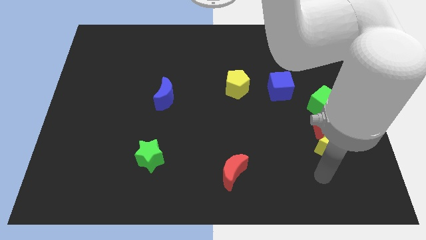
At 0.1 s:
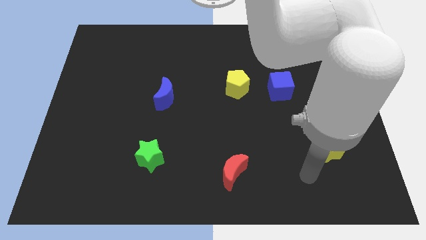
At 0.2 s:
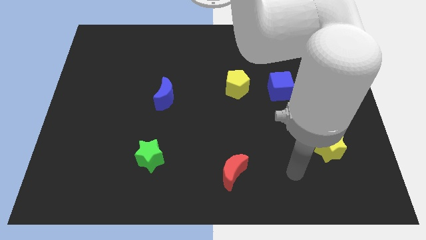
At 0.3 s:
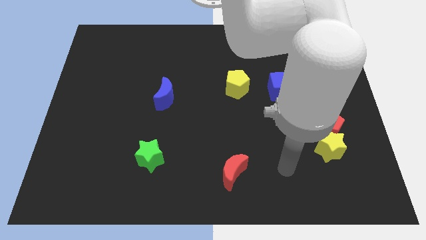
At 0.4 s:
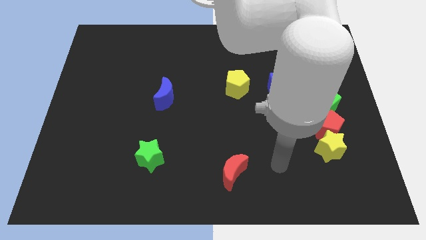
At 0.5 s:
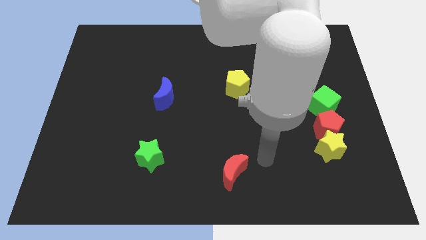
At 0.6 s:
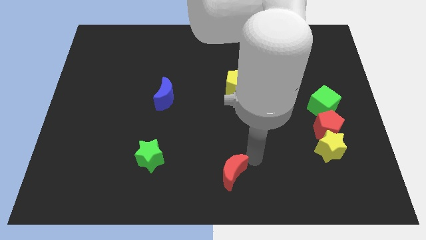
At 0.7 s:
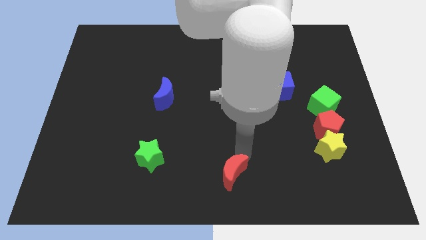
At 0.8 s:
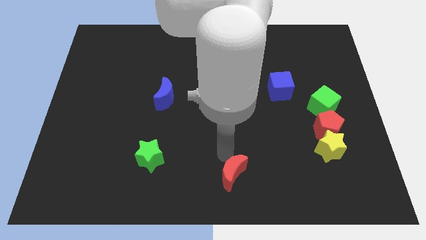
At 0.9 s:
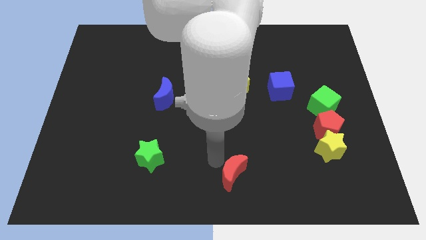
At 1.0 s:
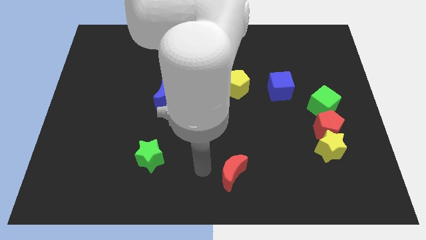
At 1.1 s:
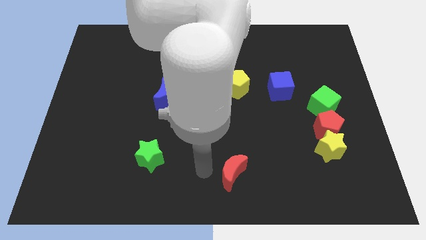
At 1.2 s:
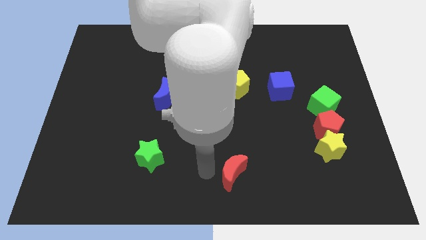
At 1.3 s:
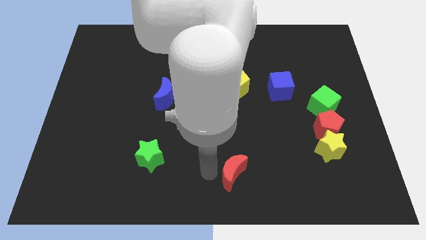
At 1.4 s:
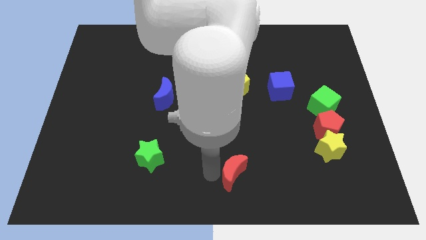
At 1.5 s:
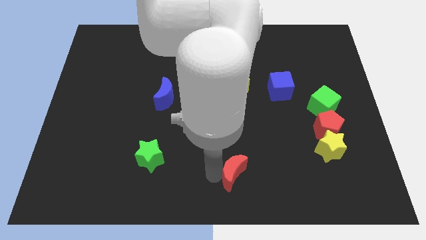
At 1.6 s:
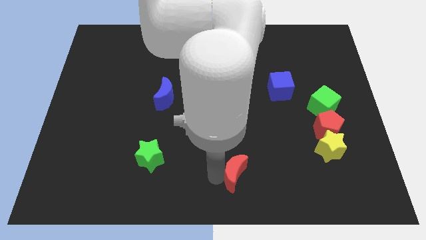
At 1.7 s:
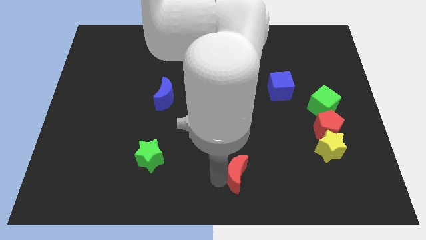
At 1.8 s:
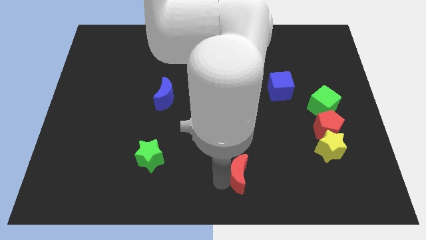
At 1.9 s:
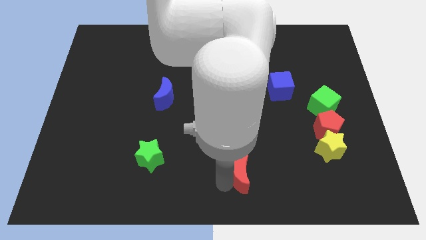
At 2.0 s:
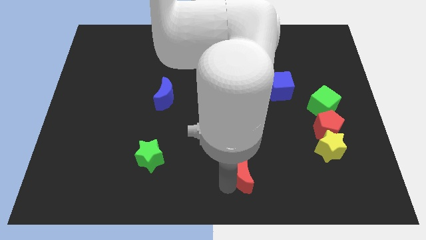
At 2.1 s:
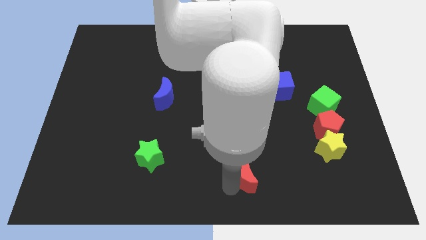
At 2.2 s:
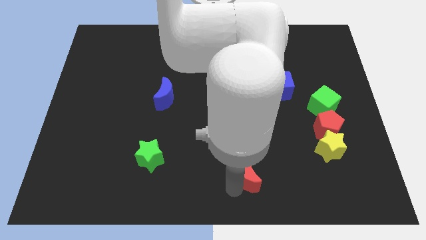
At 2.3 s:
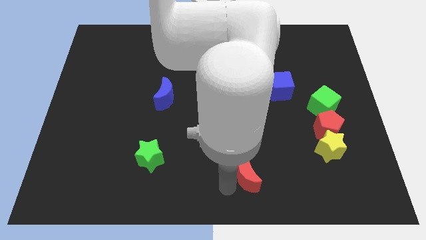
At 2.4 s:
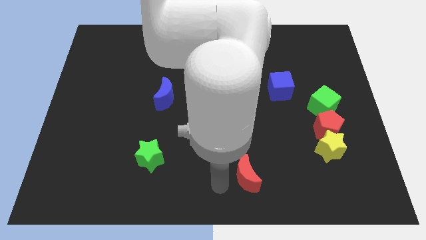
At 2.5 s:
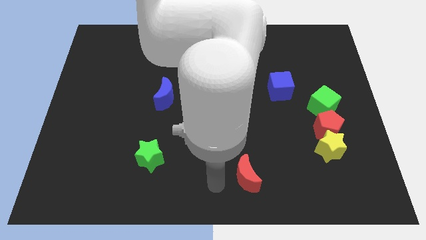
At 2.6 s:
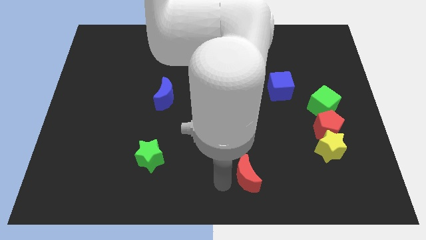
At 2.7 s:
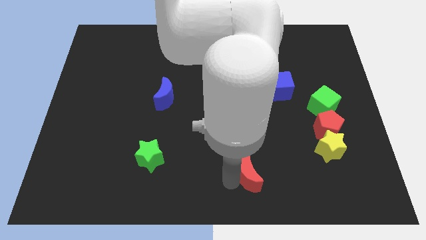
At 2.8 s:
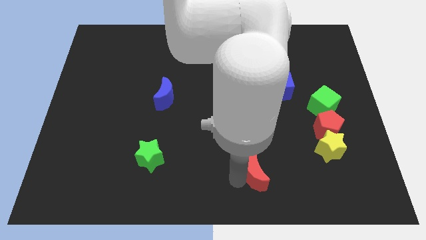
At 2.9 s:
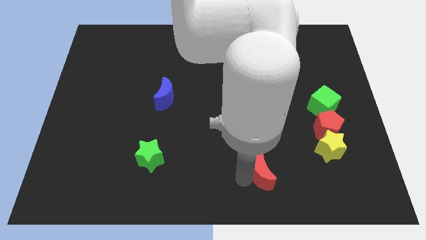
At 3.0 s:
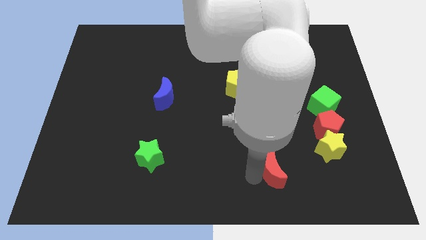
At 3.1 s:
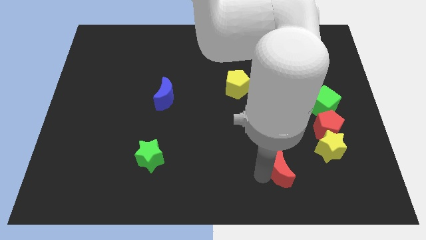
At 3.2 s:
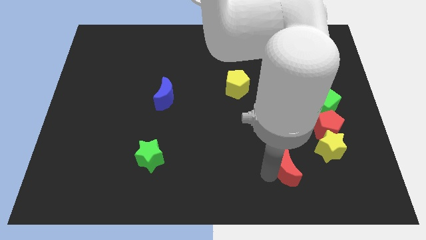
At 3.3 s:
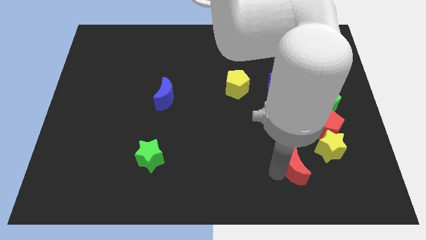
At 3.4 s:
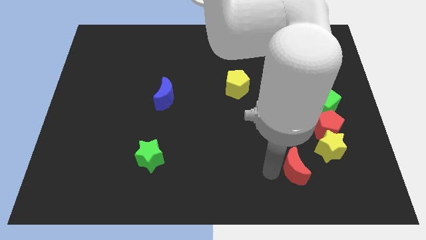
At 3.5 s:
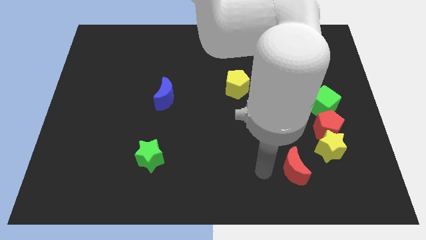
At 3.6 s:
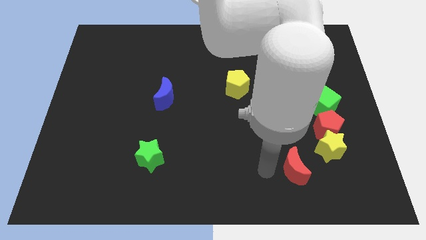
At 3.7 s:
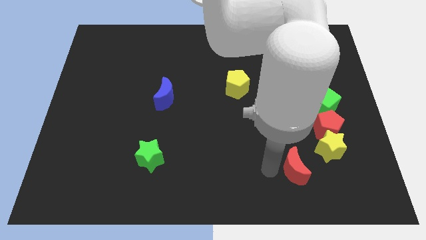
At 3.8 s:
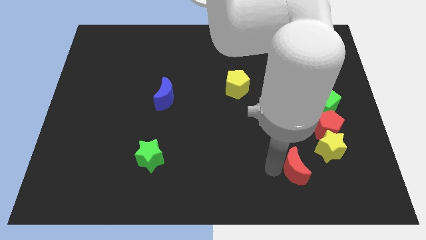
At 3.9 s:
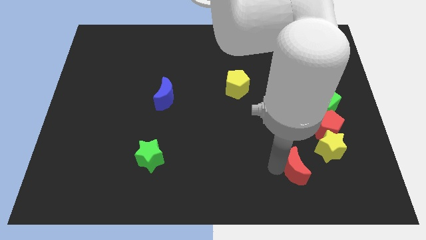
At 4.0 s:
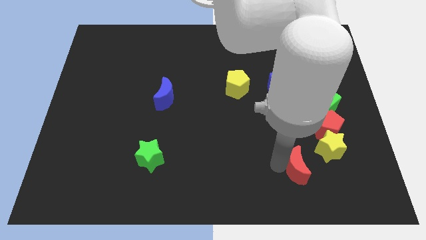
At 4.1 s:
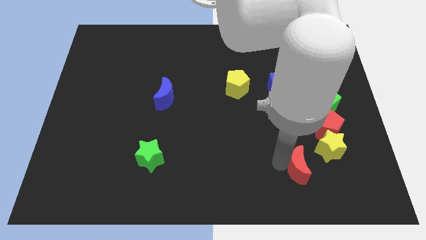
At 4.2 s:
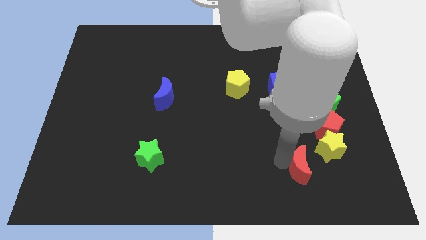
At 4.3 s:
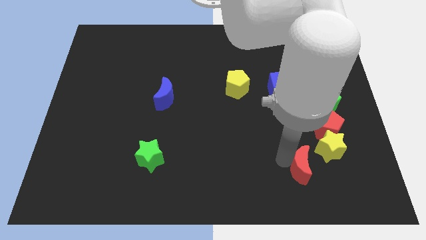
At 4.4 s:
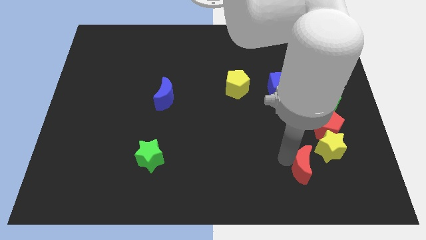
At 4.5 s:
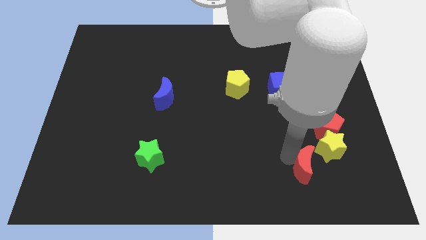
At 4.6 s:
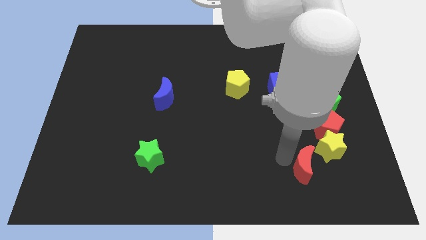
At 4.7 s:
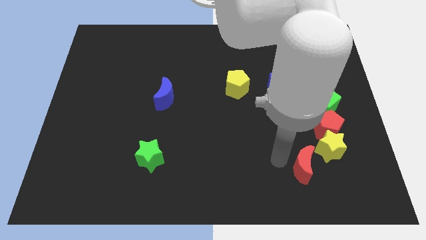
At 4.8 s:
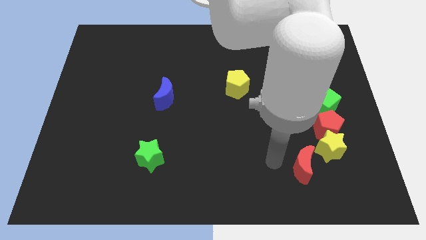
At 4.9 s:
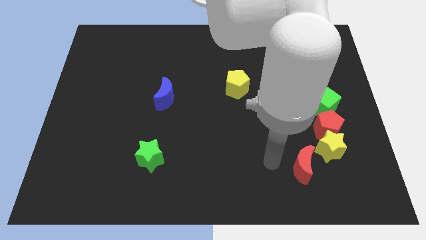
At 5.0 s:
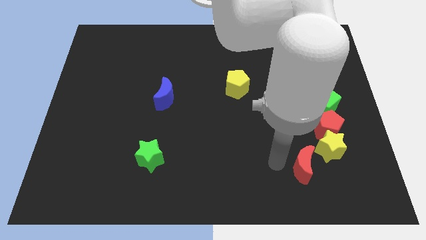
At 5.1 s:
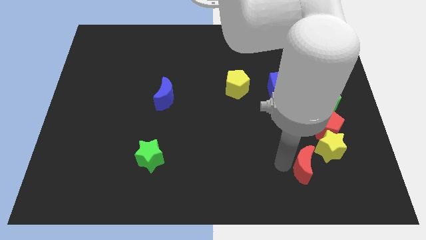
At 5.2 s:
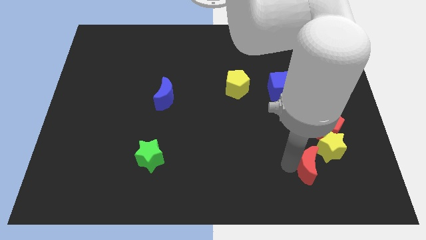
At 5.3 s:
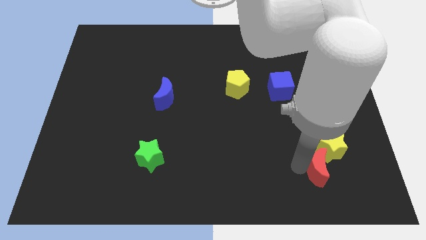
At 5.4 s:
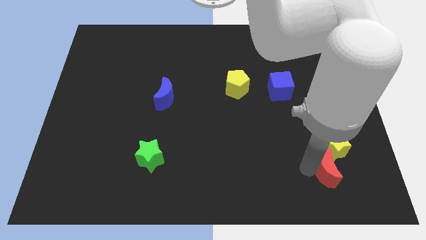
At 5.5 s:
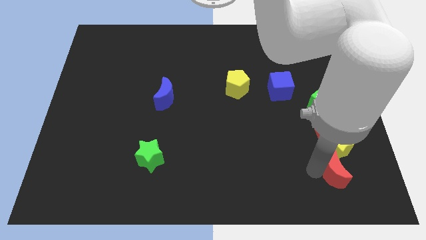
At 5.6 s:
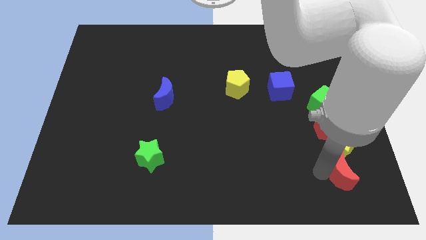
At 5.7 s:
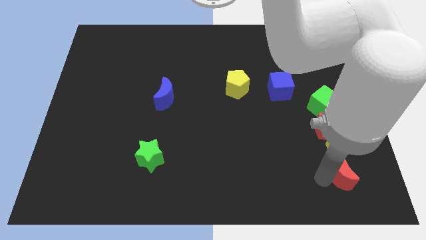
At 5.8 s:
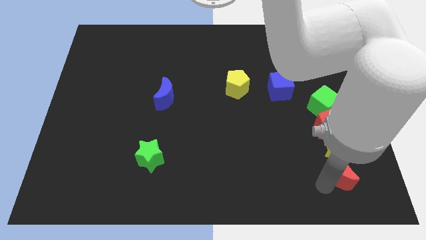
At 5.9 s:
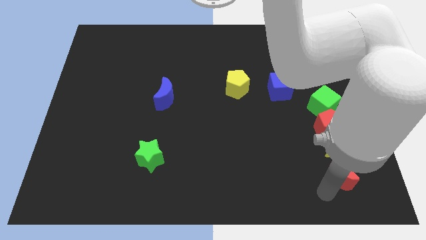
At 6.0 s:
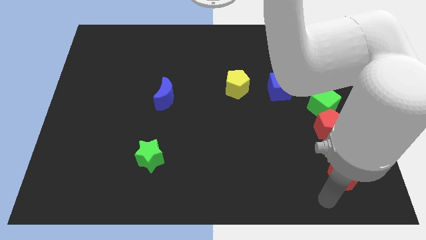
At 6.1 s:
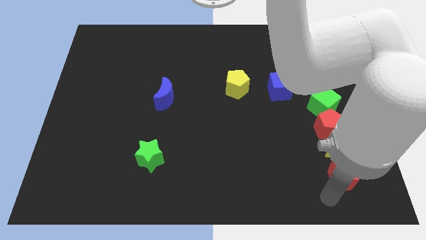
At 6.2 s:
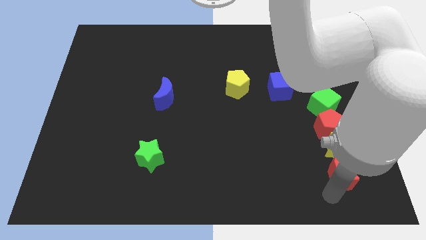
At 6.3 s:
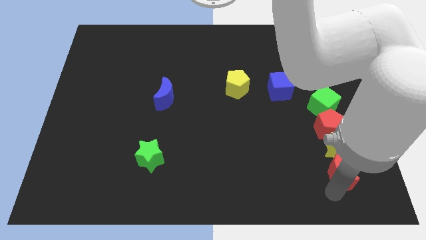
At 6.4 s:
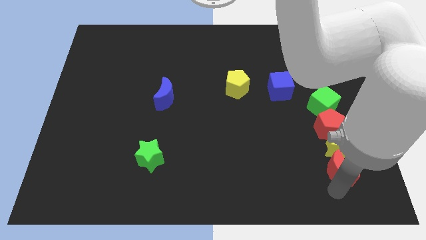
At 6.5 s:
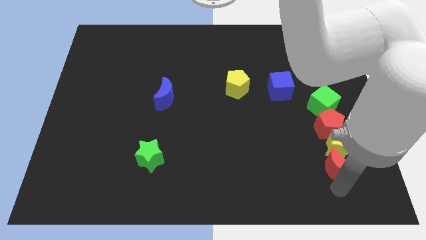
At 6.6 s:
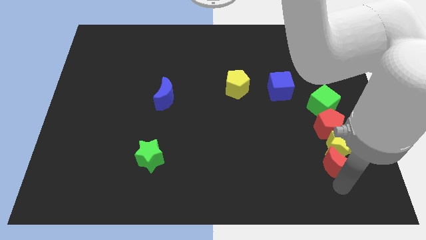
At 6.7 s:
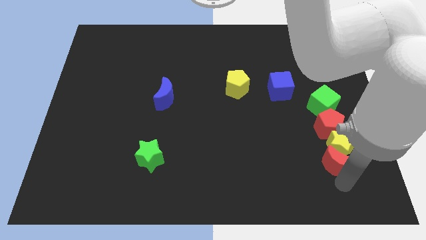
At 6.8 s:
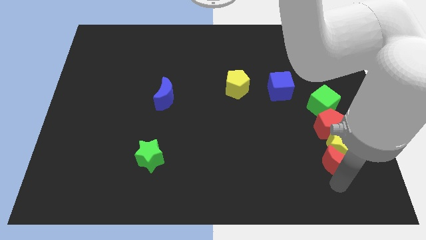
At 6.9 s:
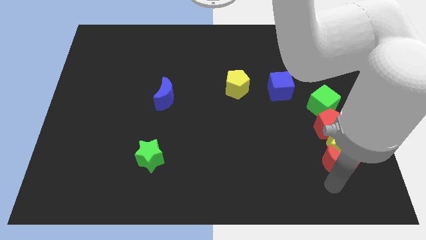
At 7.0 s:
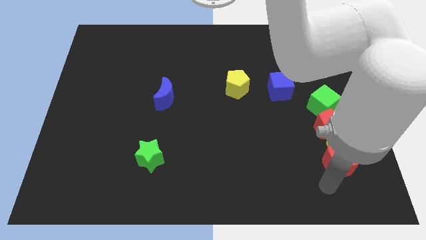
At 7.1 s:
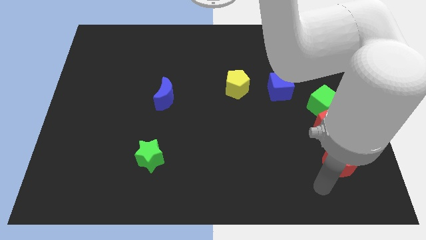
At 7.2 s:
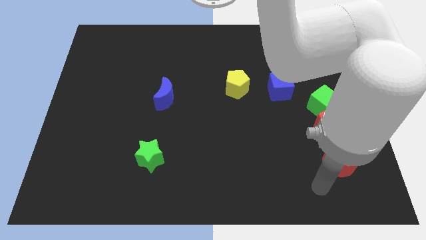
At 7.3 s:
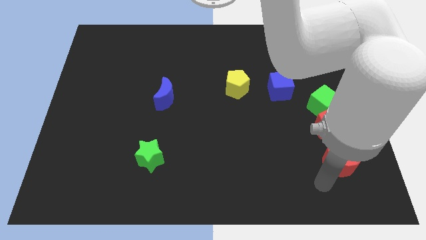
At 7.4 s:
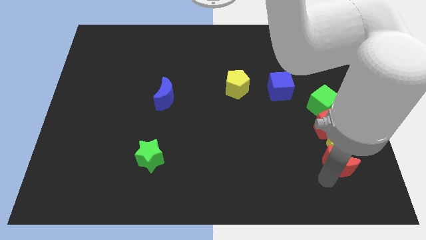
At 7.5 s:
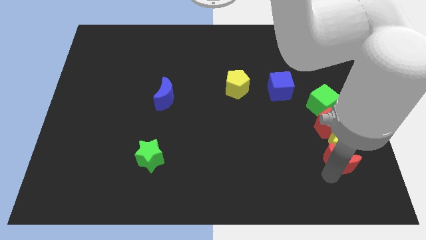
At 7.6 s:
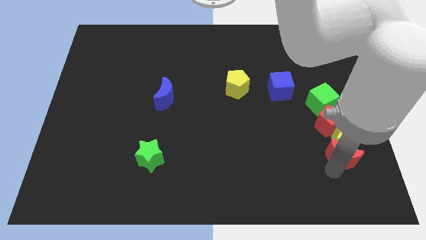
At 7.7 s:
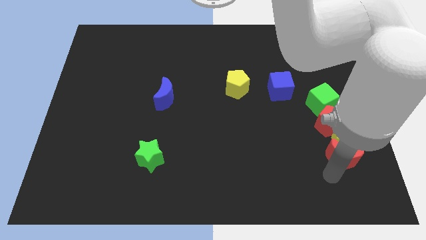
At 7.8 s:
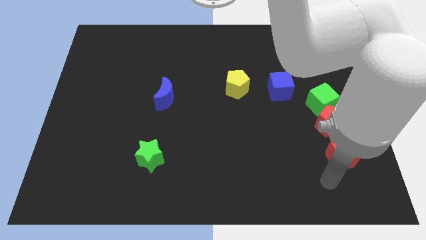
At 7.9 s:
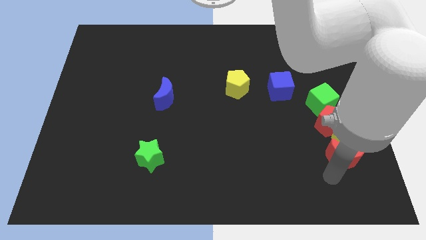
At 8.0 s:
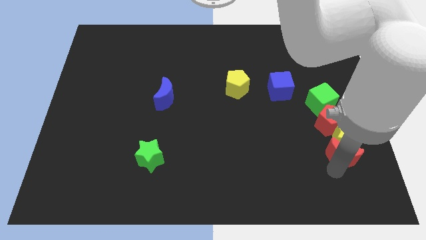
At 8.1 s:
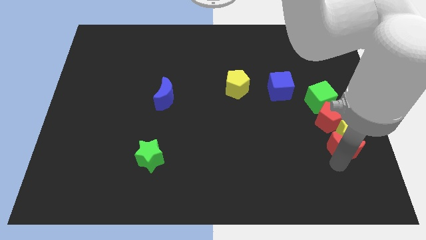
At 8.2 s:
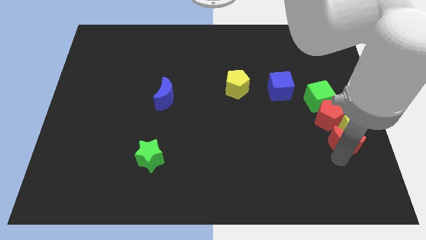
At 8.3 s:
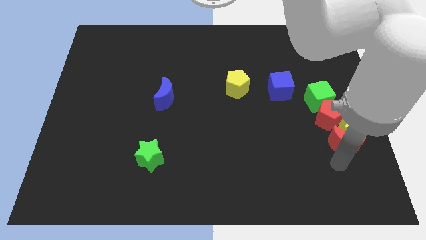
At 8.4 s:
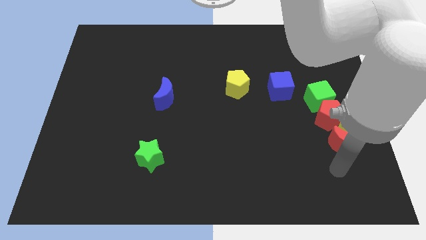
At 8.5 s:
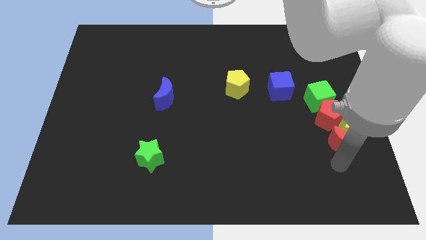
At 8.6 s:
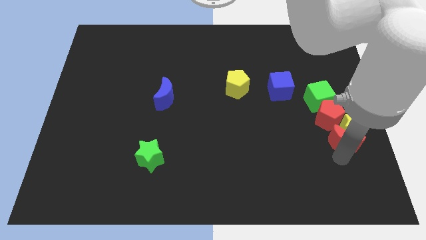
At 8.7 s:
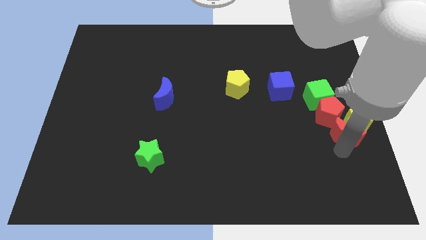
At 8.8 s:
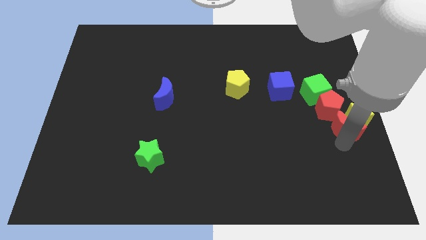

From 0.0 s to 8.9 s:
put the red moon to the right side of the board
